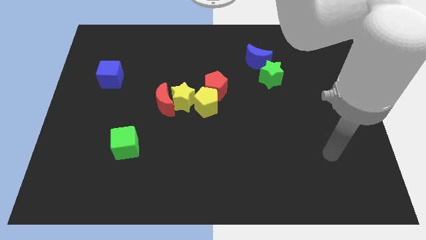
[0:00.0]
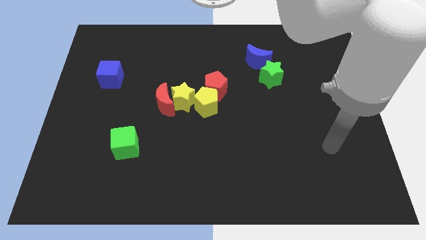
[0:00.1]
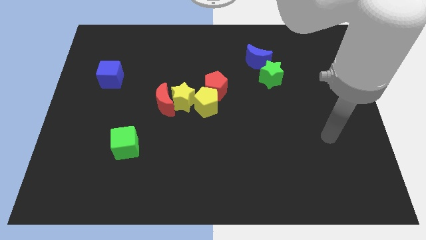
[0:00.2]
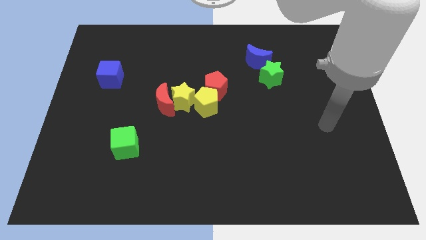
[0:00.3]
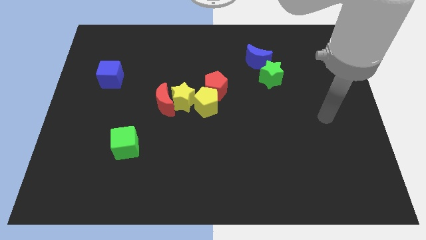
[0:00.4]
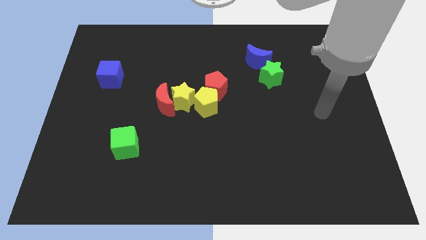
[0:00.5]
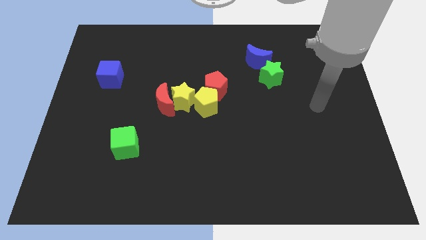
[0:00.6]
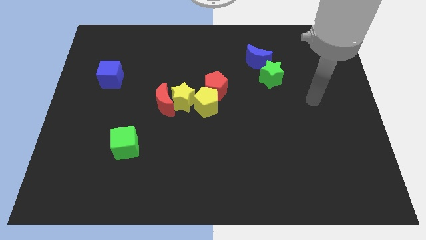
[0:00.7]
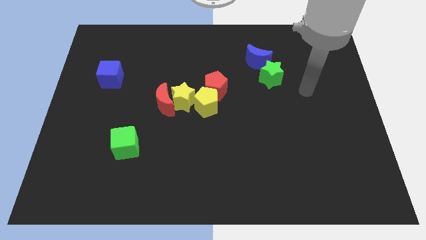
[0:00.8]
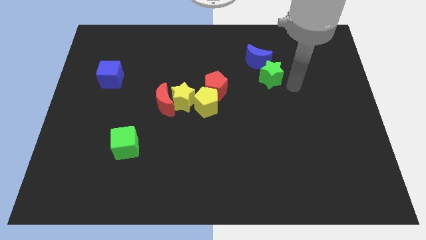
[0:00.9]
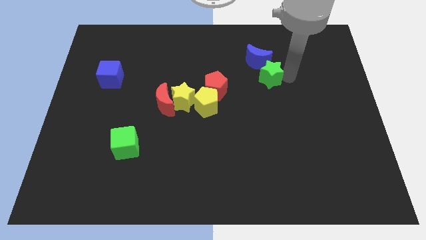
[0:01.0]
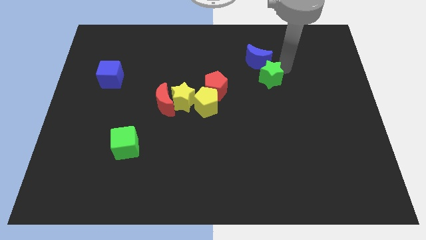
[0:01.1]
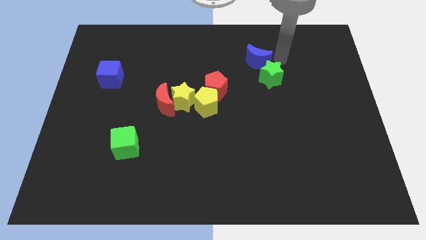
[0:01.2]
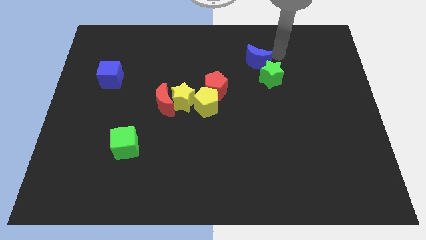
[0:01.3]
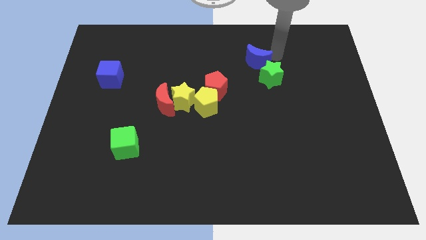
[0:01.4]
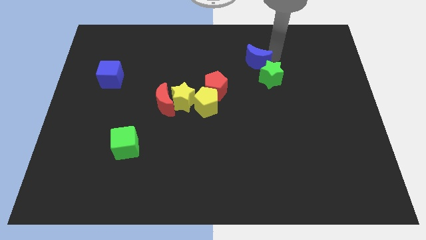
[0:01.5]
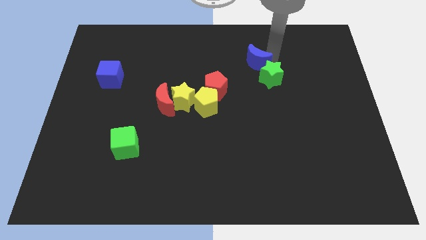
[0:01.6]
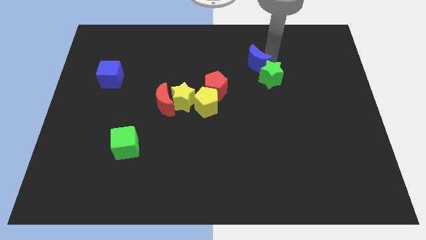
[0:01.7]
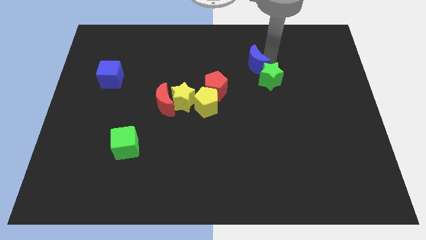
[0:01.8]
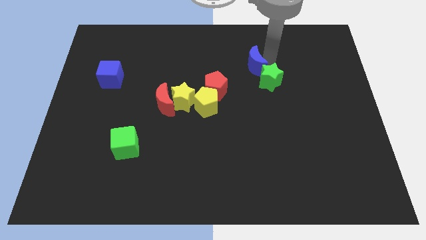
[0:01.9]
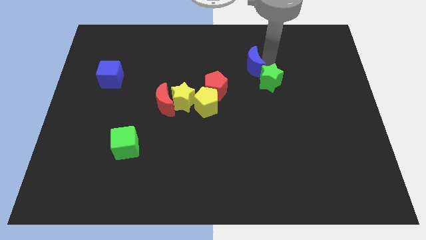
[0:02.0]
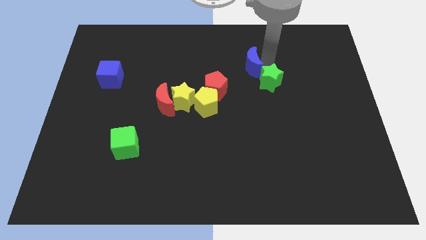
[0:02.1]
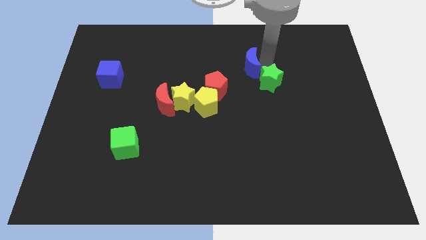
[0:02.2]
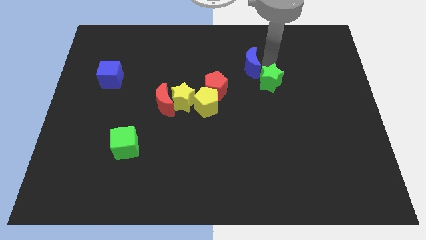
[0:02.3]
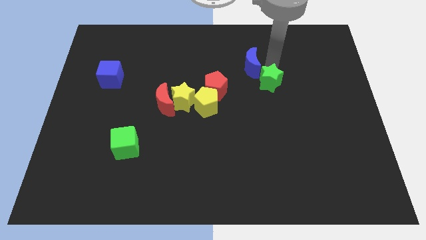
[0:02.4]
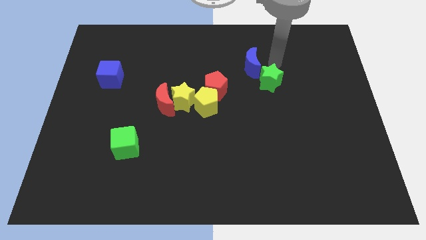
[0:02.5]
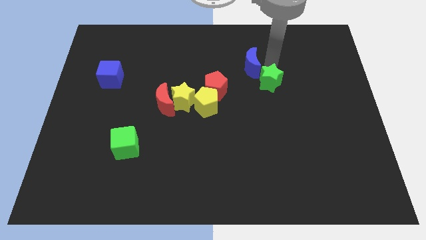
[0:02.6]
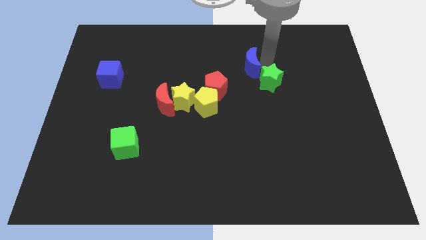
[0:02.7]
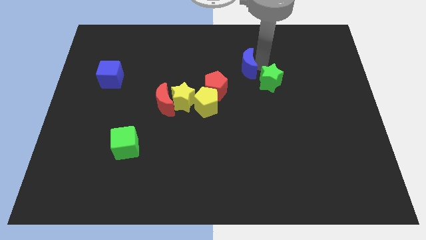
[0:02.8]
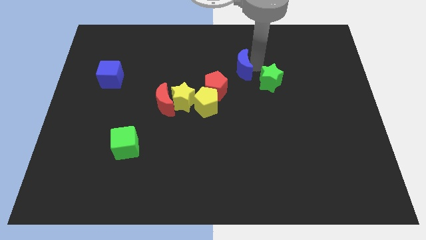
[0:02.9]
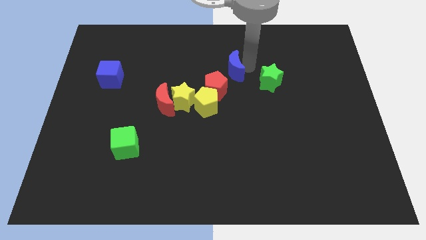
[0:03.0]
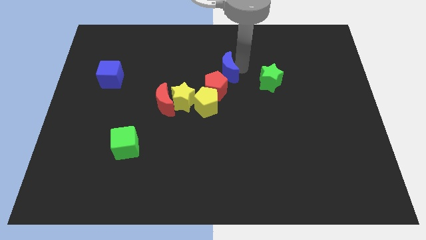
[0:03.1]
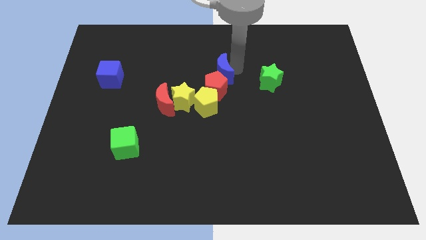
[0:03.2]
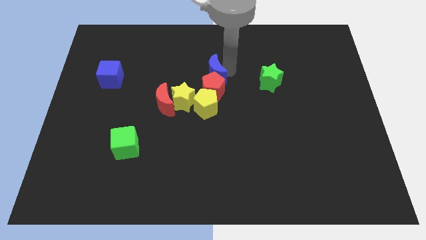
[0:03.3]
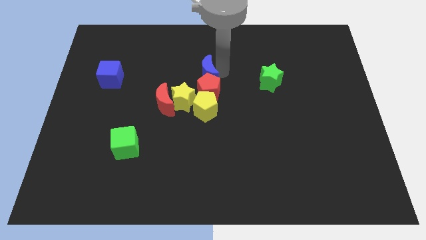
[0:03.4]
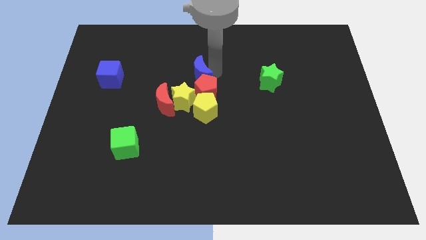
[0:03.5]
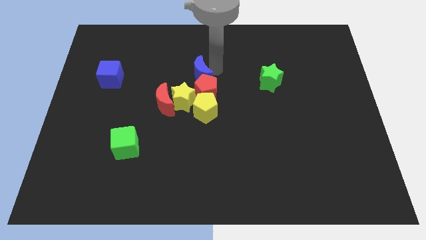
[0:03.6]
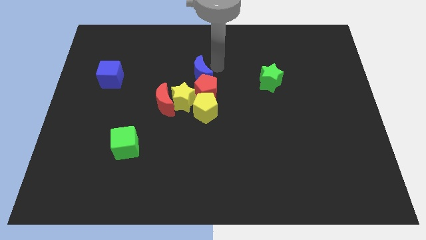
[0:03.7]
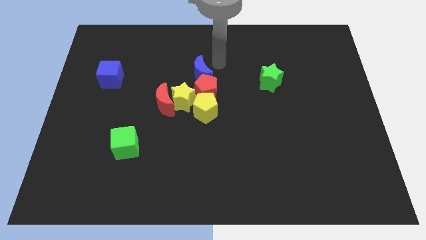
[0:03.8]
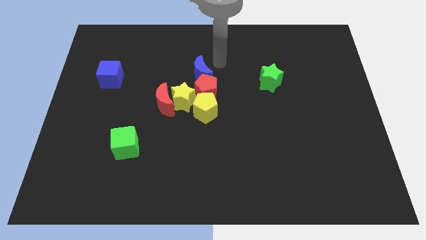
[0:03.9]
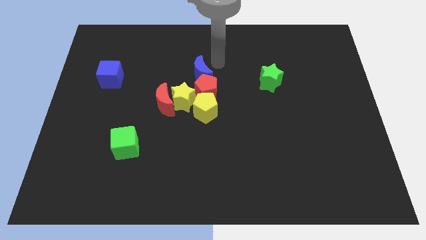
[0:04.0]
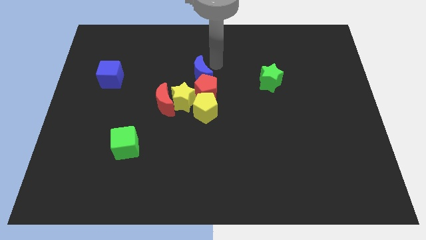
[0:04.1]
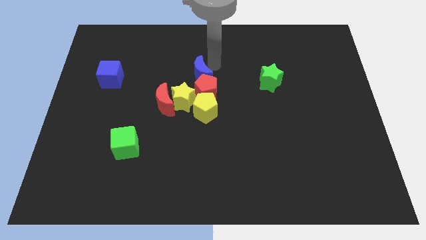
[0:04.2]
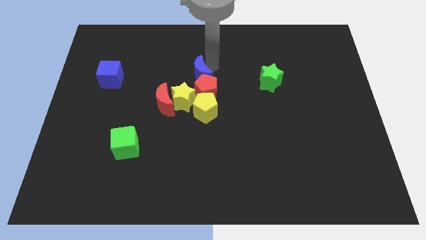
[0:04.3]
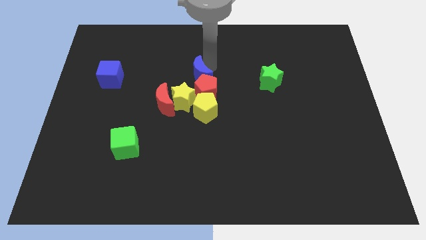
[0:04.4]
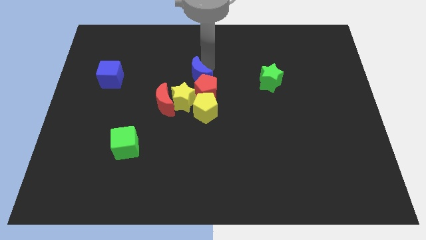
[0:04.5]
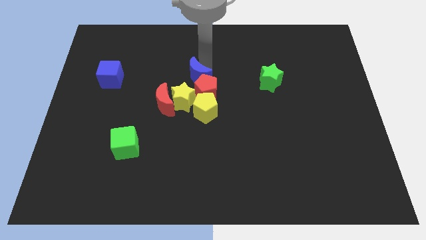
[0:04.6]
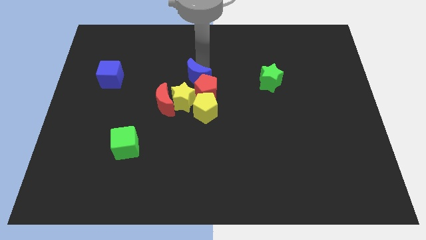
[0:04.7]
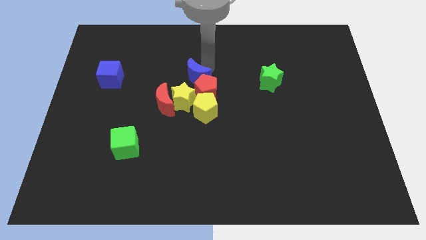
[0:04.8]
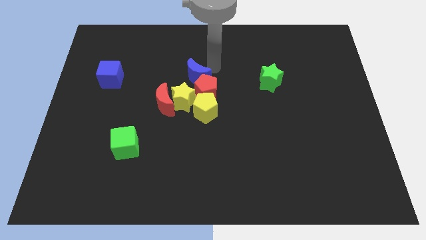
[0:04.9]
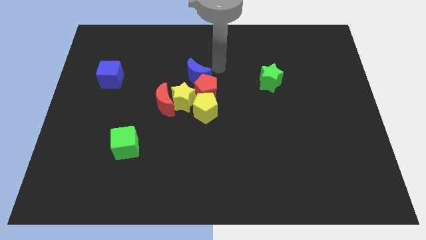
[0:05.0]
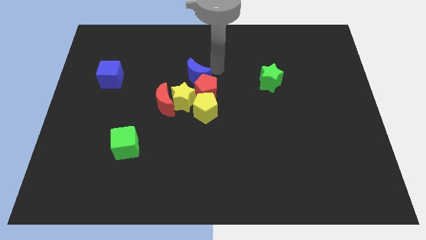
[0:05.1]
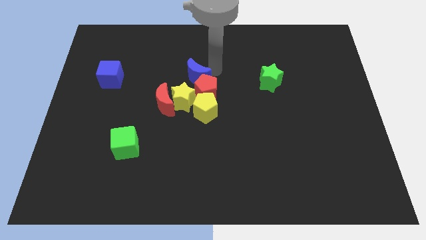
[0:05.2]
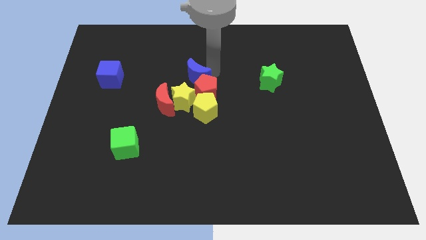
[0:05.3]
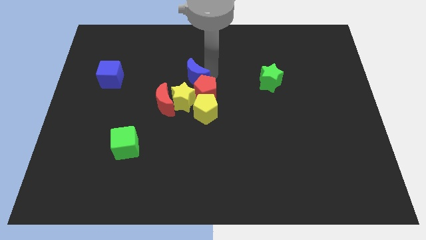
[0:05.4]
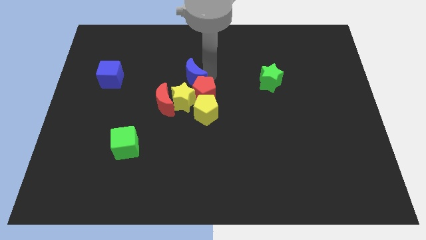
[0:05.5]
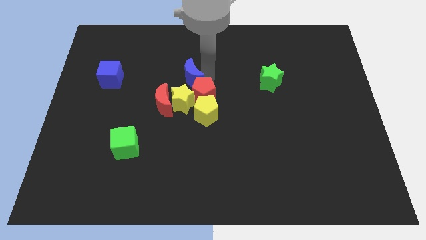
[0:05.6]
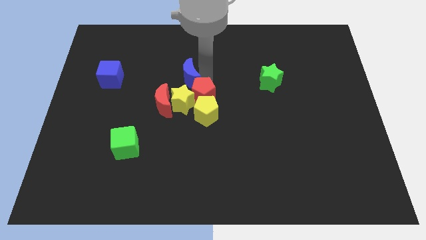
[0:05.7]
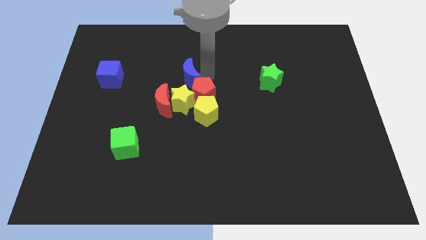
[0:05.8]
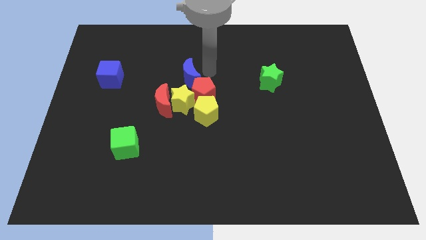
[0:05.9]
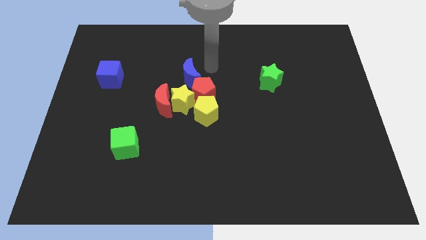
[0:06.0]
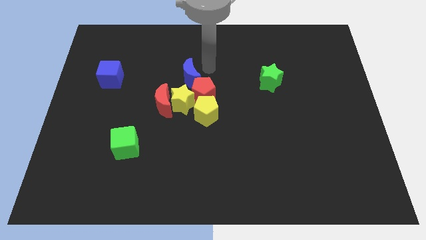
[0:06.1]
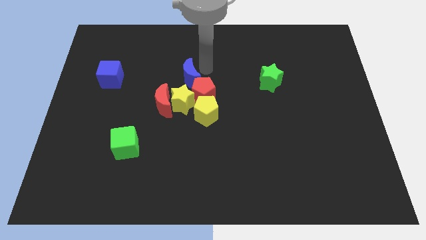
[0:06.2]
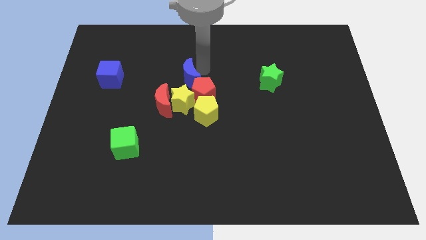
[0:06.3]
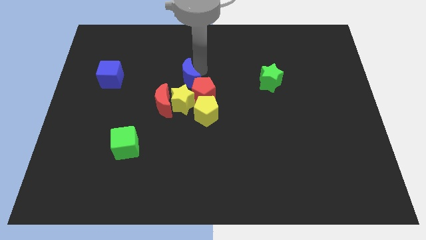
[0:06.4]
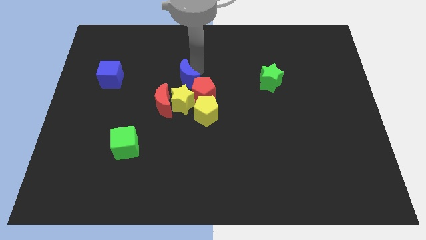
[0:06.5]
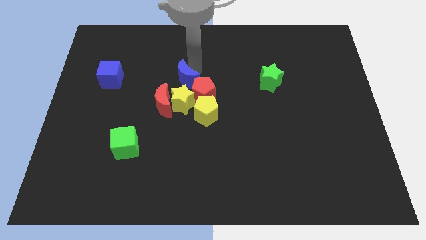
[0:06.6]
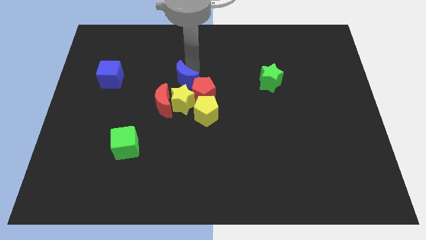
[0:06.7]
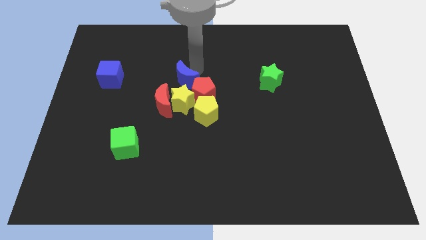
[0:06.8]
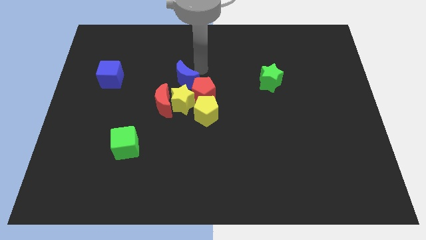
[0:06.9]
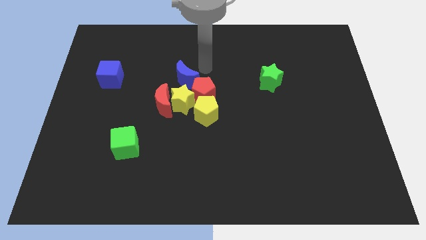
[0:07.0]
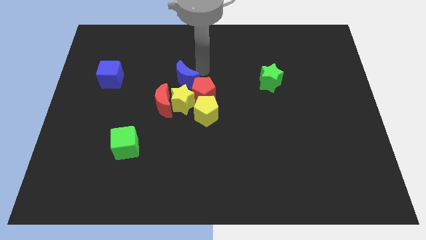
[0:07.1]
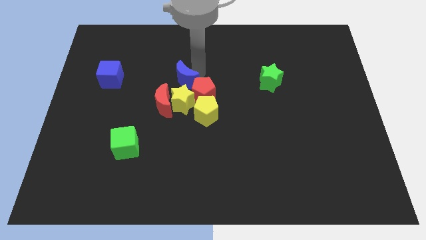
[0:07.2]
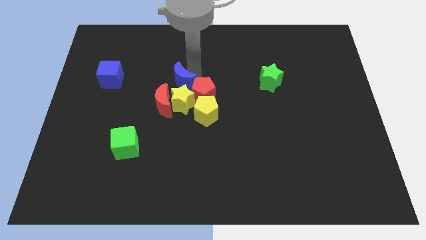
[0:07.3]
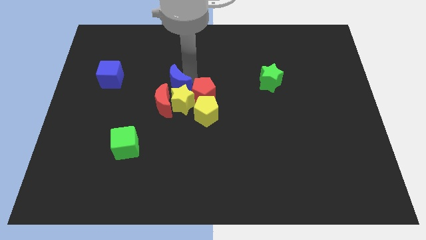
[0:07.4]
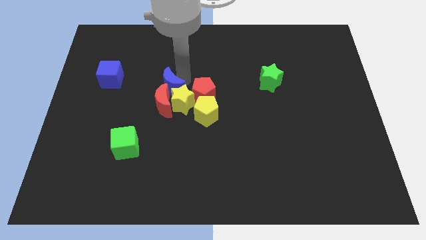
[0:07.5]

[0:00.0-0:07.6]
put the blue moon towards the red moon

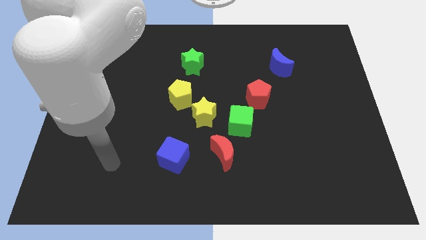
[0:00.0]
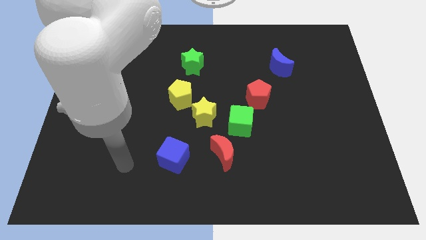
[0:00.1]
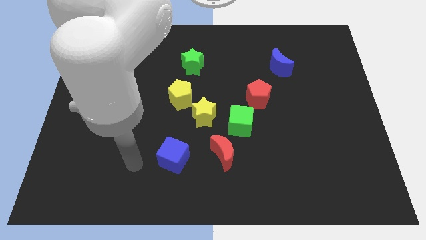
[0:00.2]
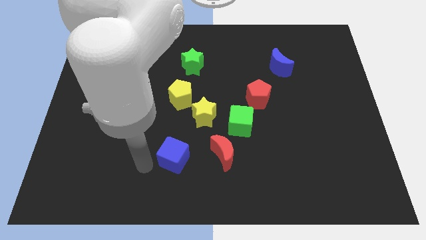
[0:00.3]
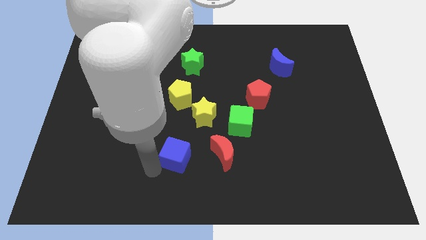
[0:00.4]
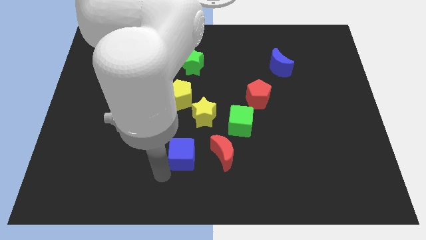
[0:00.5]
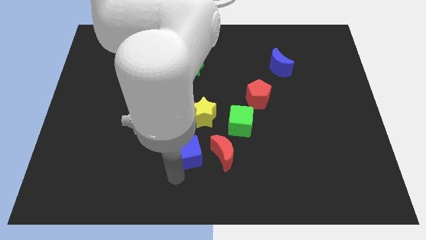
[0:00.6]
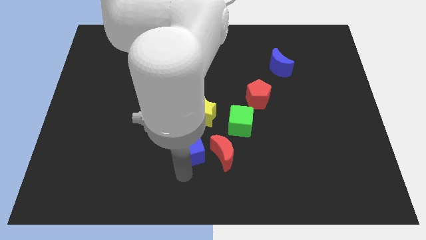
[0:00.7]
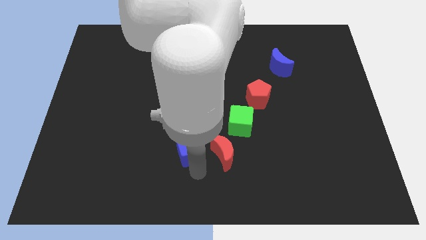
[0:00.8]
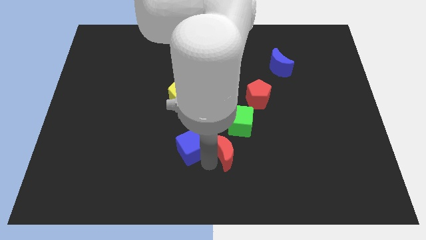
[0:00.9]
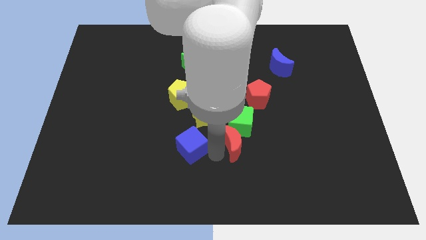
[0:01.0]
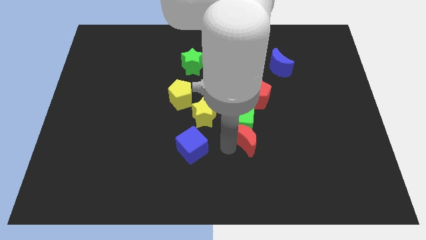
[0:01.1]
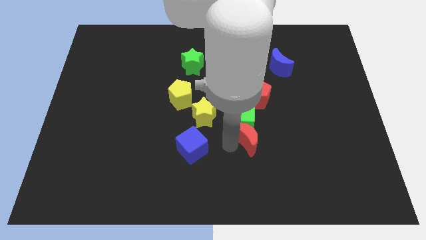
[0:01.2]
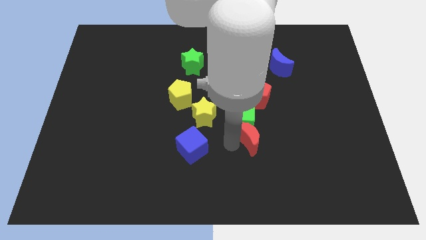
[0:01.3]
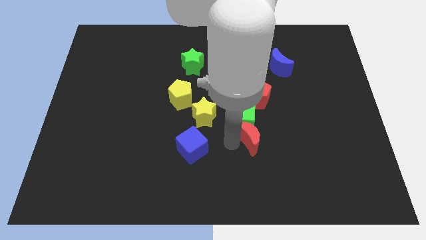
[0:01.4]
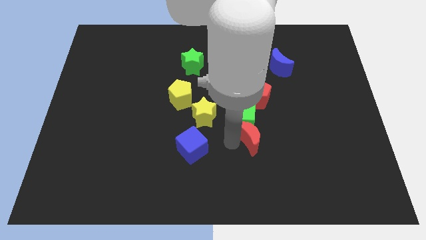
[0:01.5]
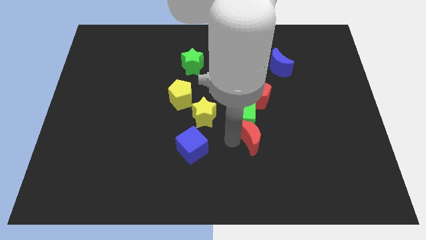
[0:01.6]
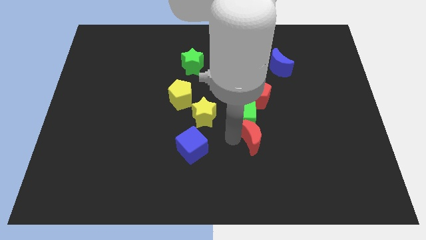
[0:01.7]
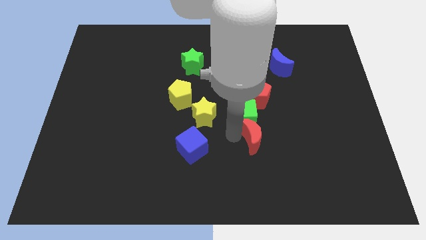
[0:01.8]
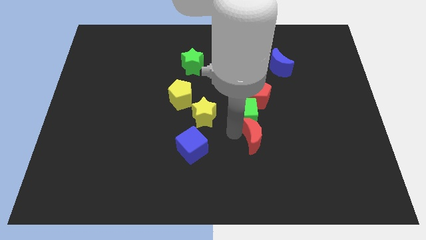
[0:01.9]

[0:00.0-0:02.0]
push the green cube towards the red pentagon
